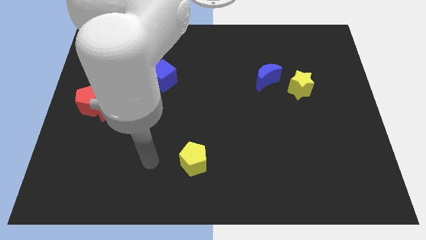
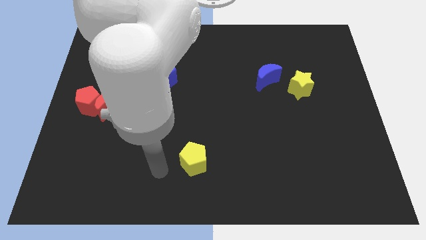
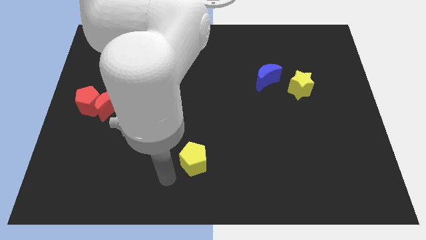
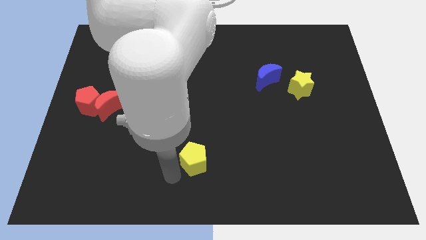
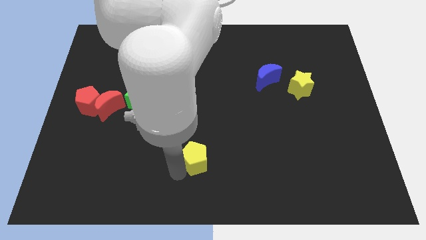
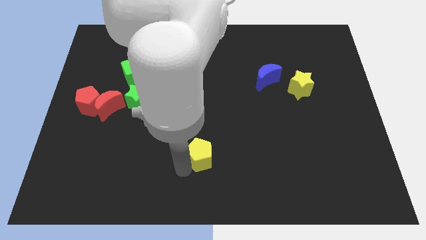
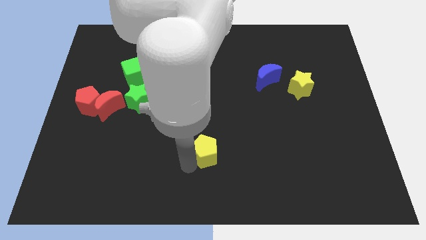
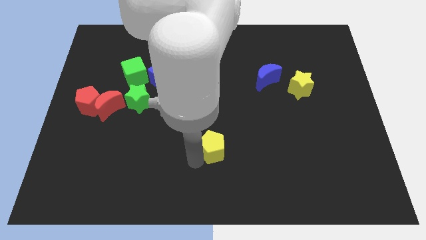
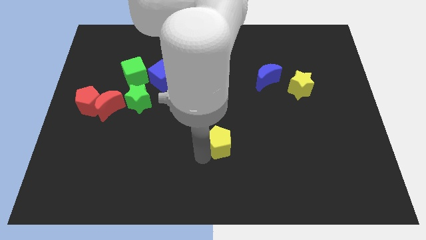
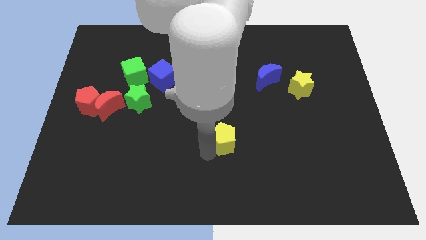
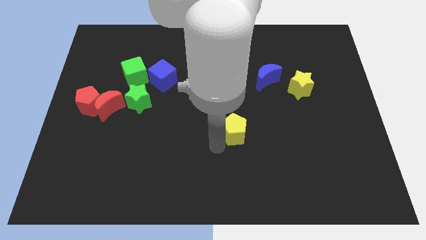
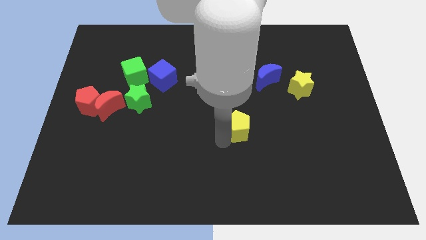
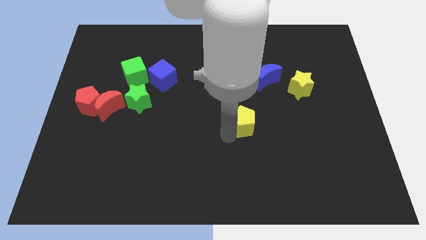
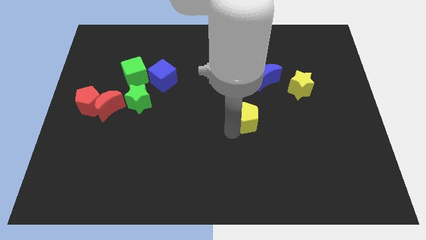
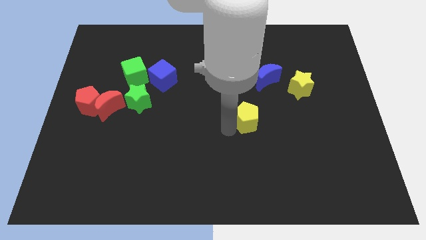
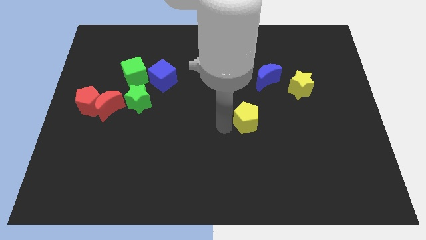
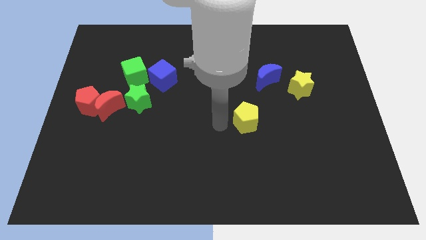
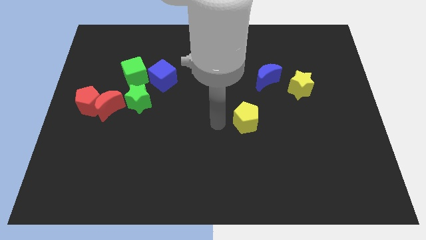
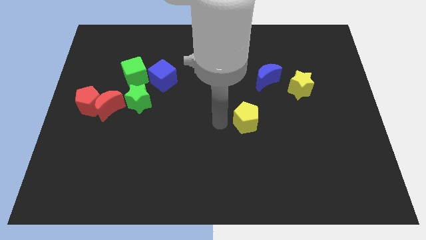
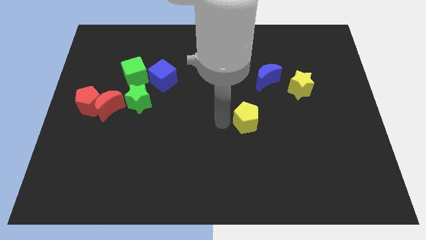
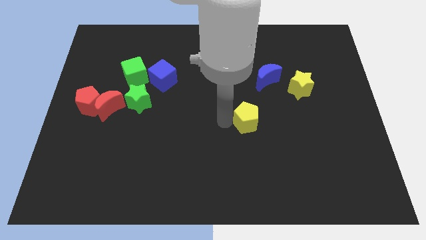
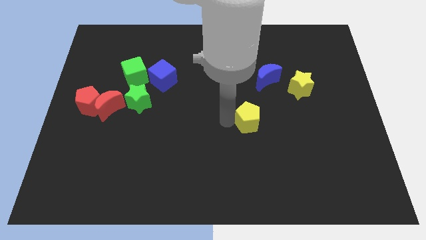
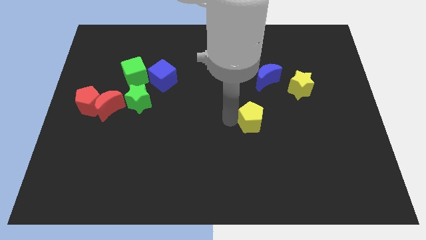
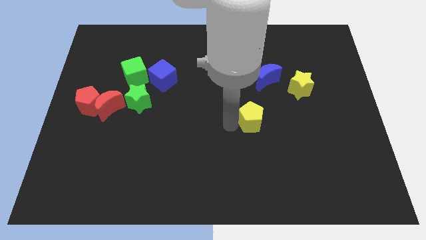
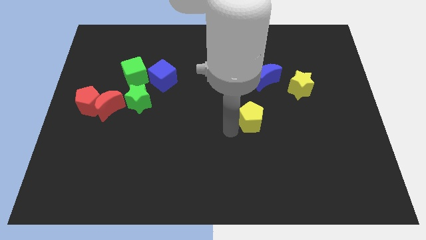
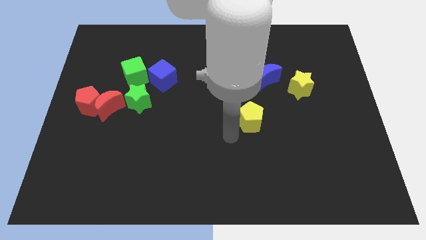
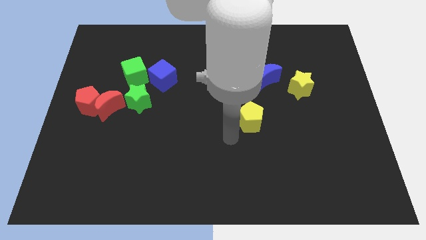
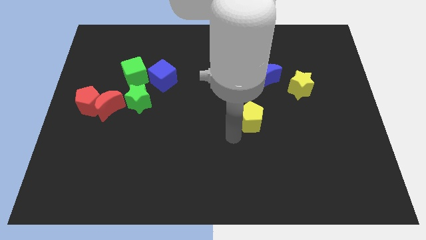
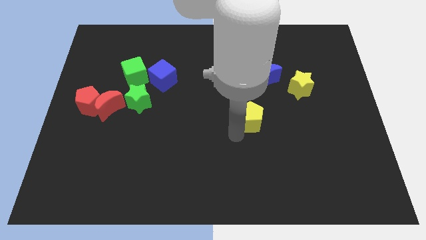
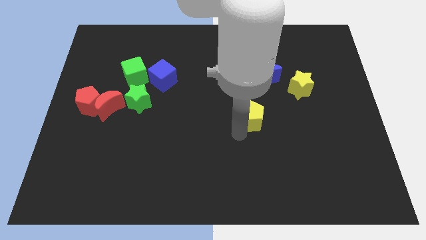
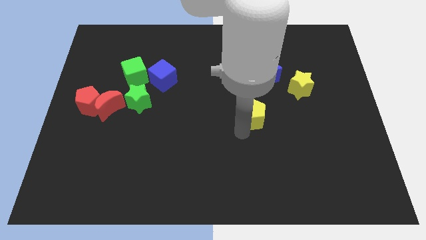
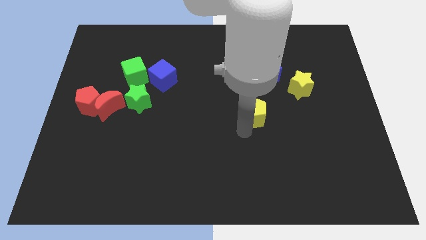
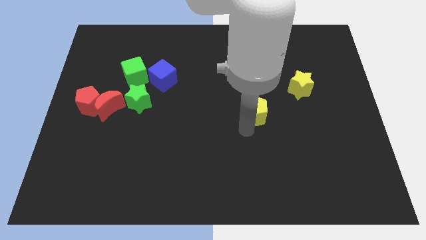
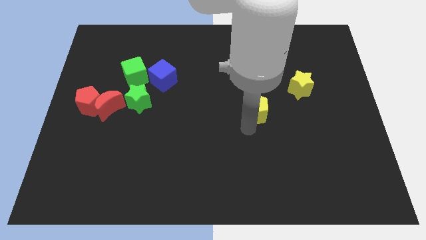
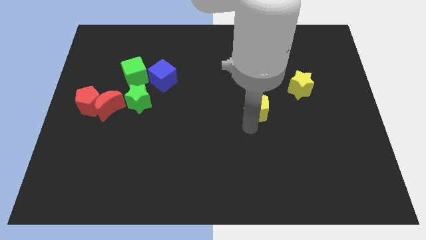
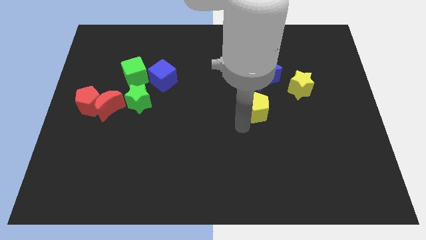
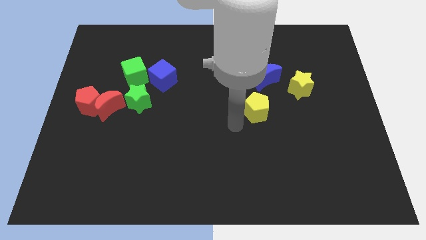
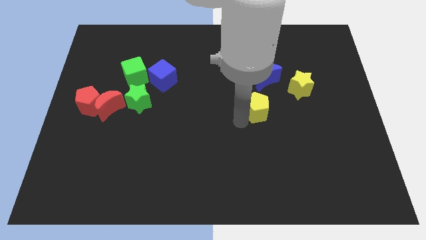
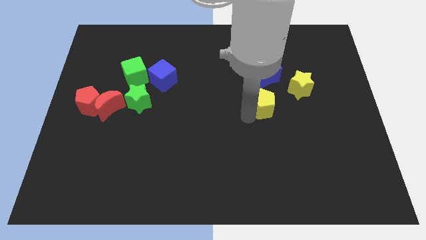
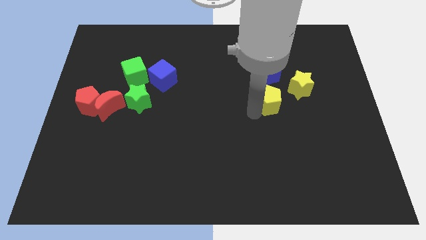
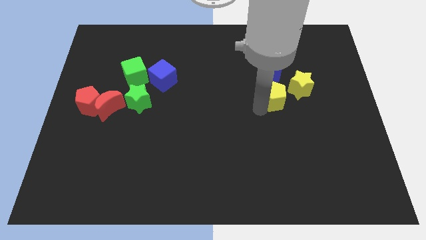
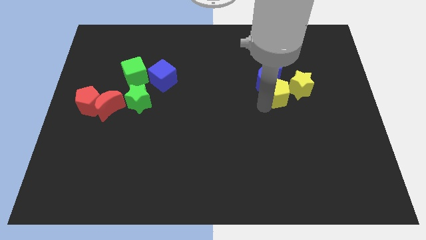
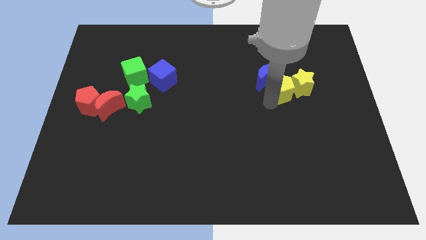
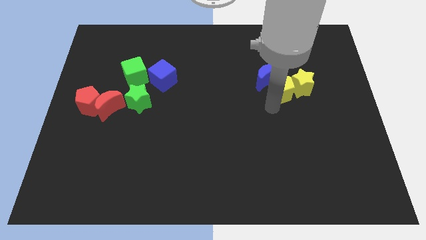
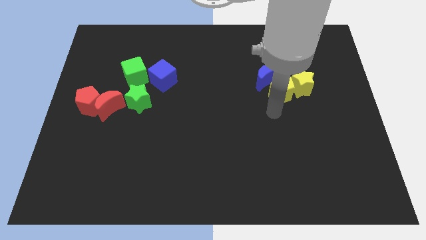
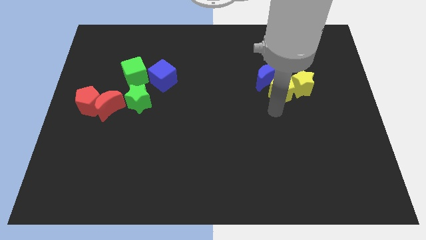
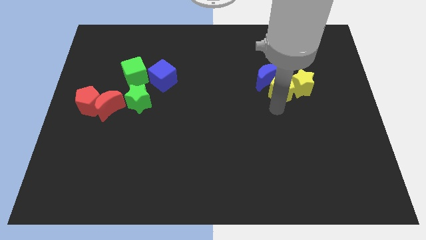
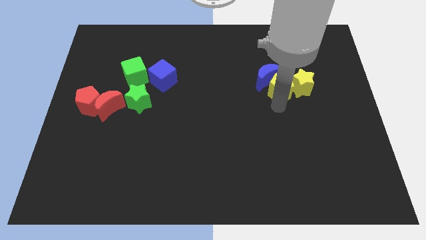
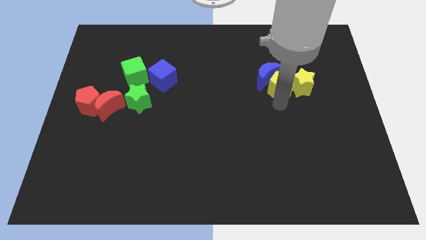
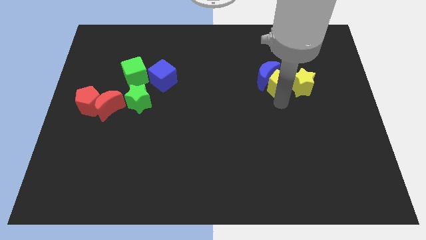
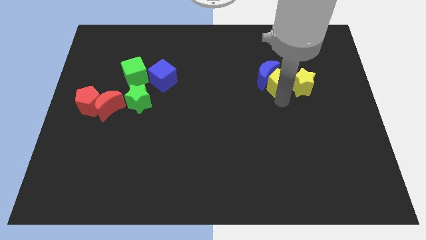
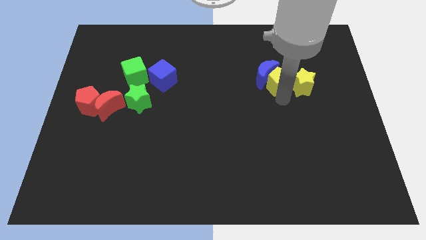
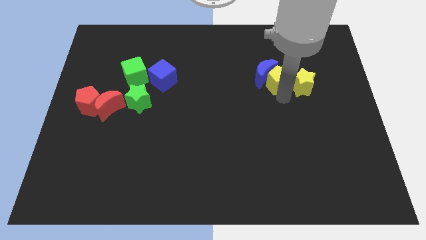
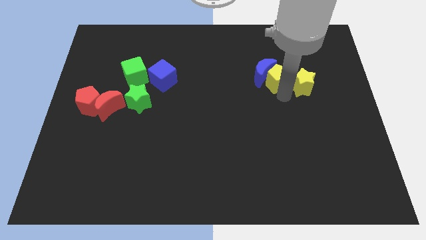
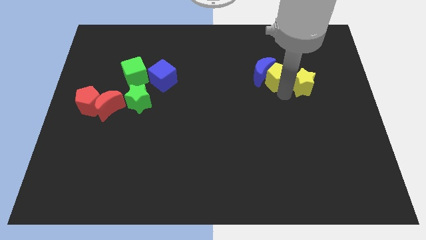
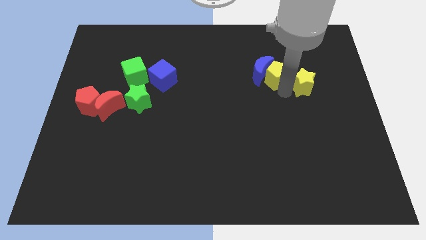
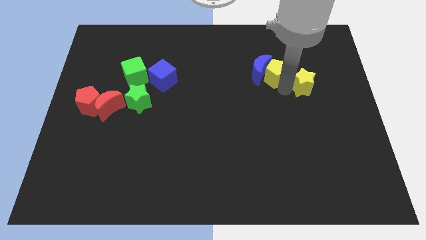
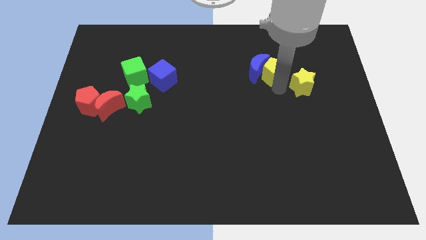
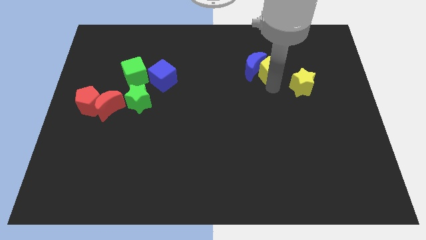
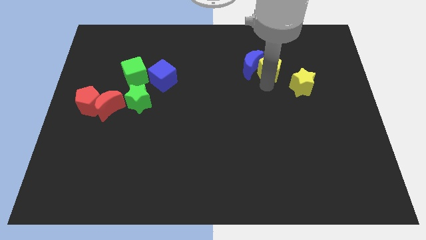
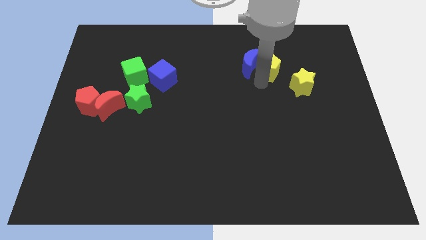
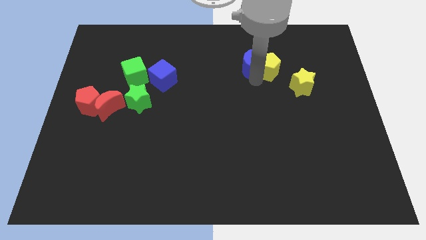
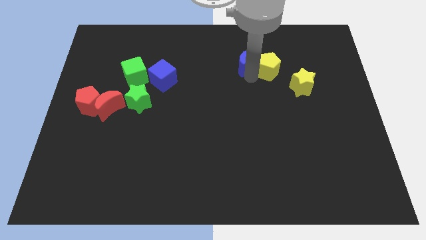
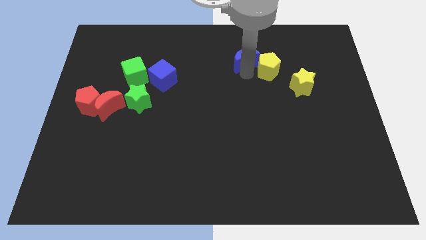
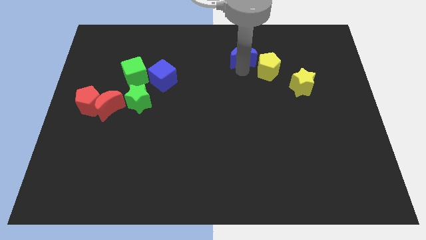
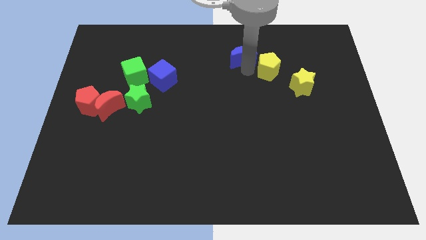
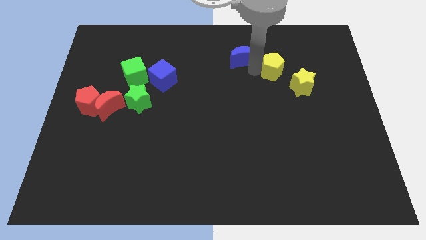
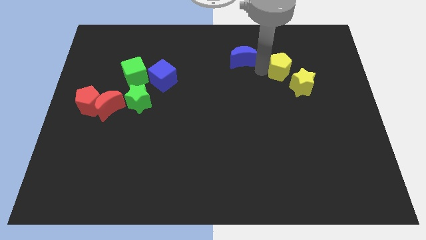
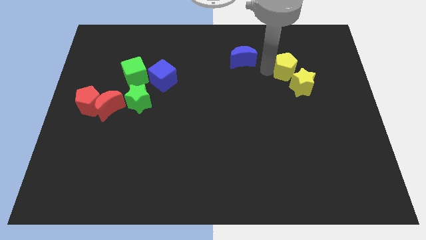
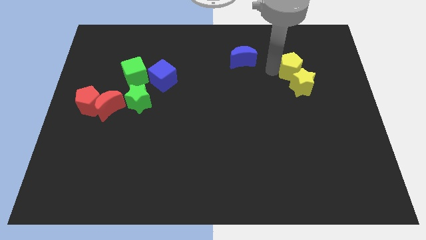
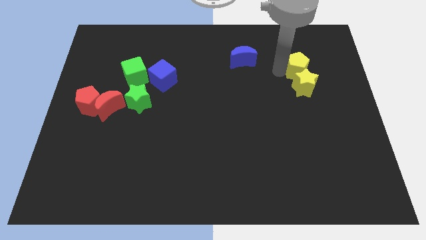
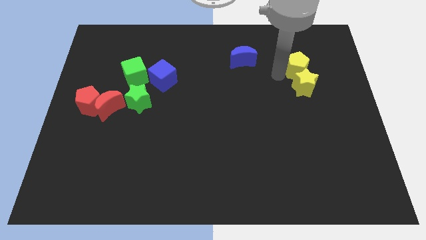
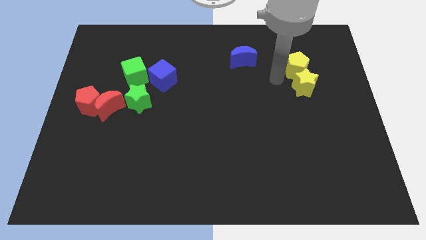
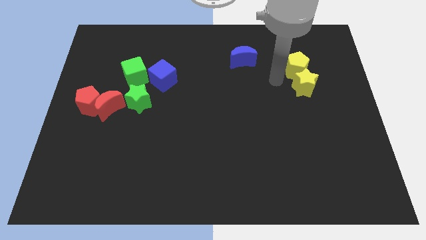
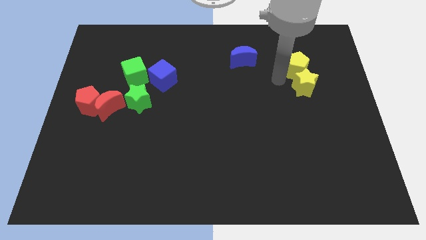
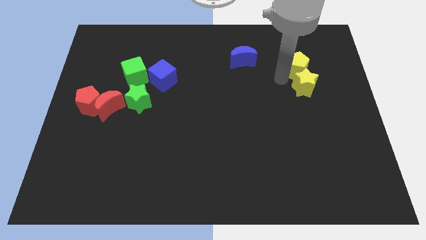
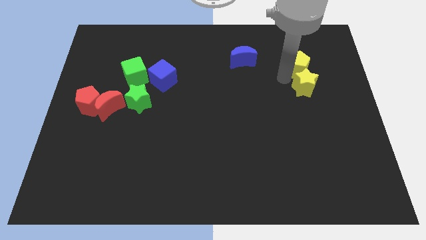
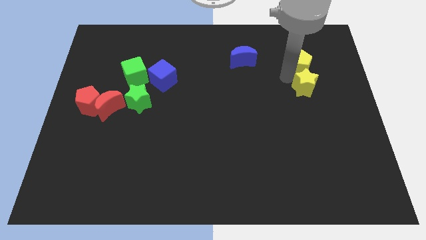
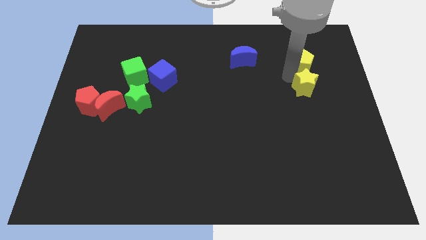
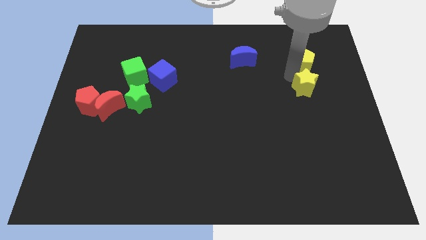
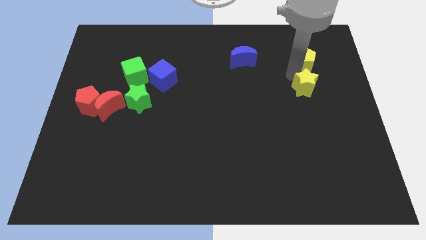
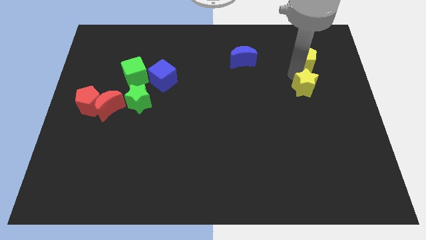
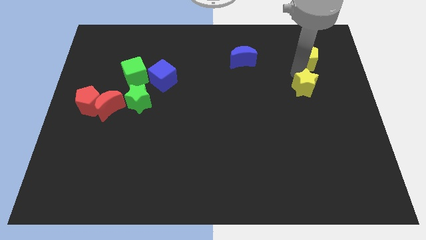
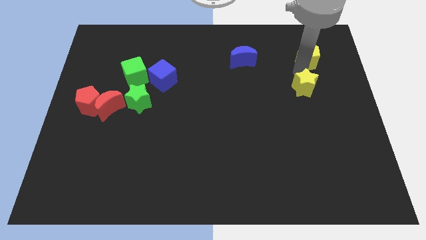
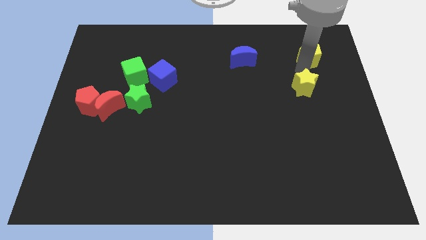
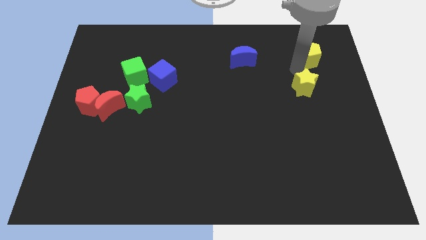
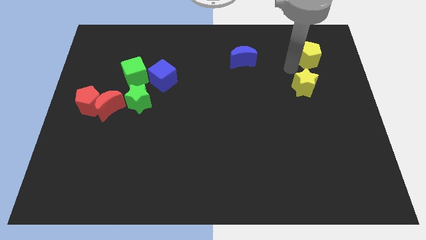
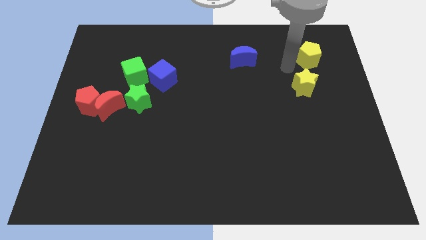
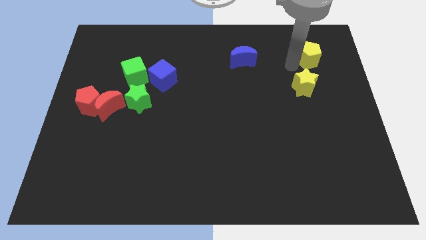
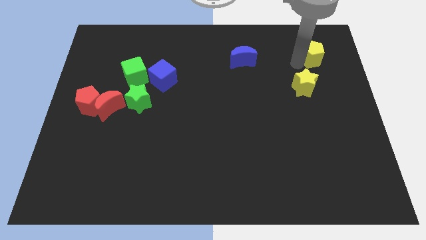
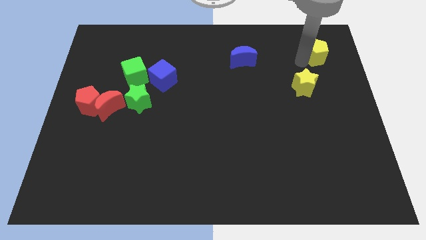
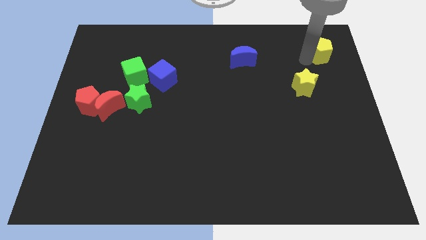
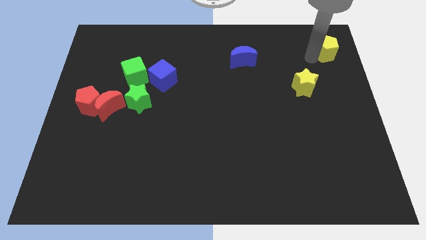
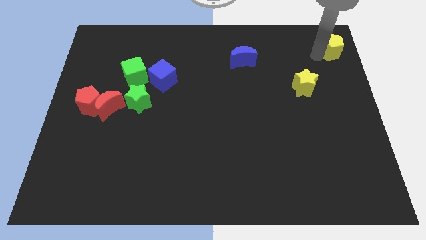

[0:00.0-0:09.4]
slide the yellow pentagon to the top right corner
